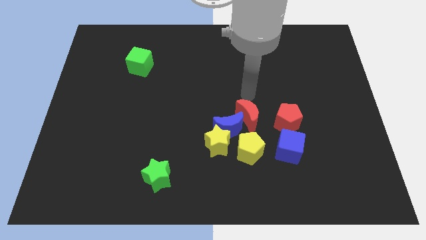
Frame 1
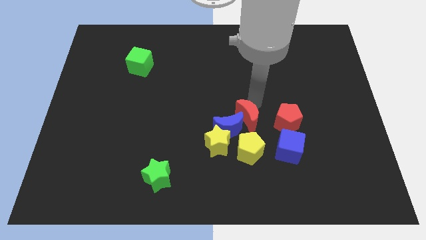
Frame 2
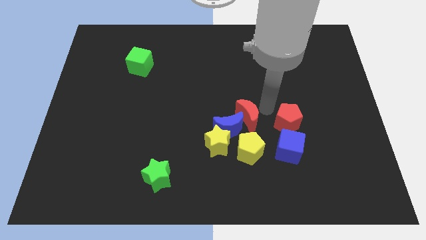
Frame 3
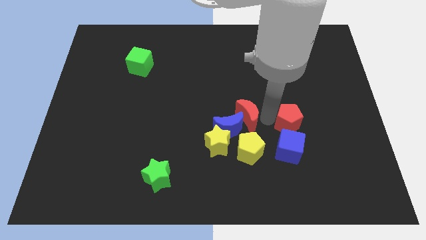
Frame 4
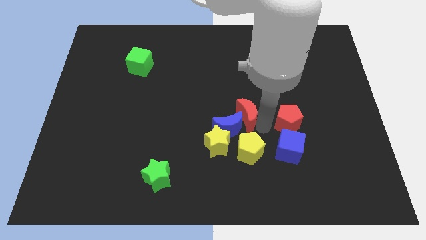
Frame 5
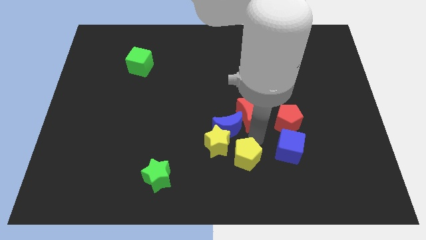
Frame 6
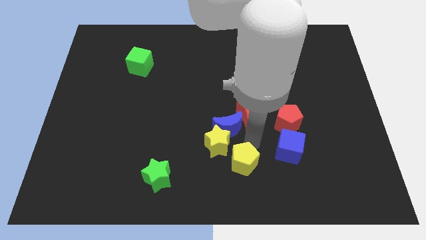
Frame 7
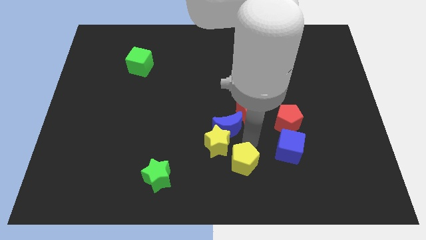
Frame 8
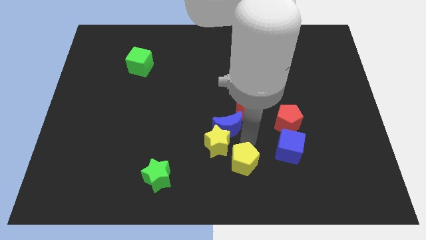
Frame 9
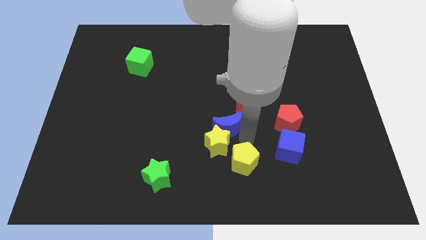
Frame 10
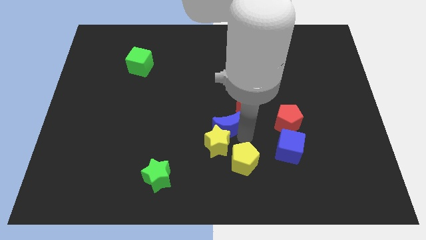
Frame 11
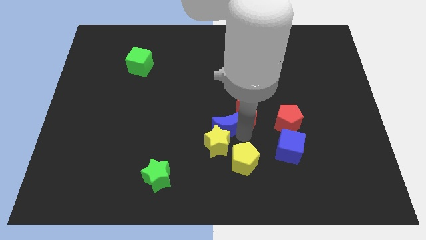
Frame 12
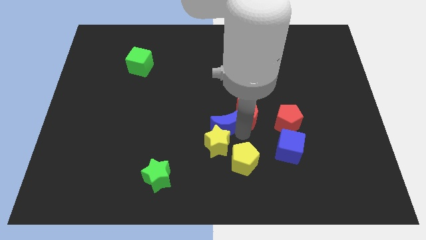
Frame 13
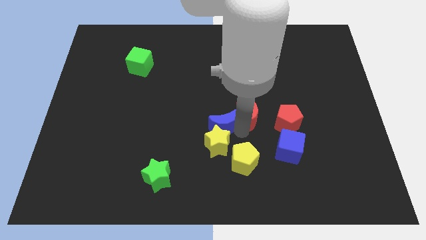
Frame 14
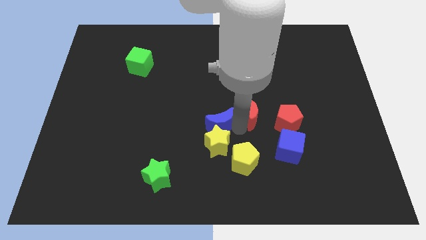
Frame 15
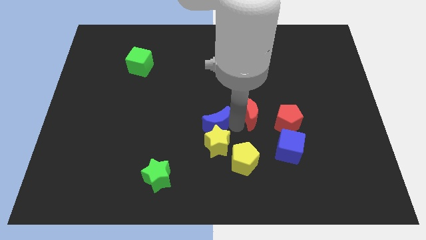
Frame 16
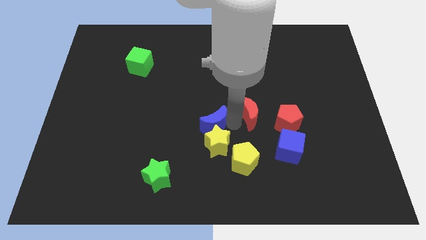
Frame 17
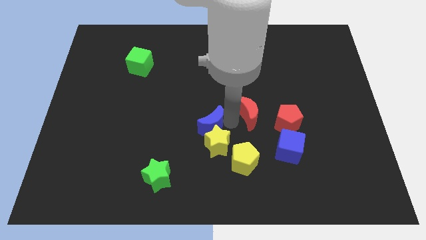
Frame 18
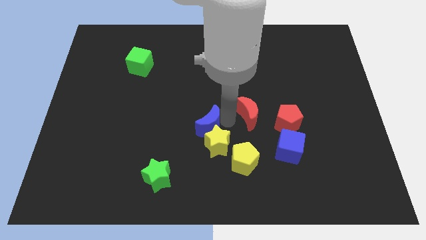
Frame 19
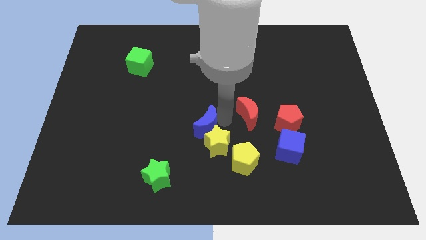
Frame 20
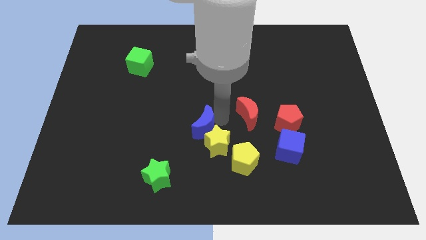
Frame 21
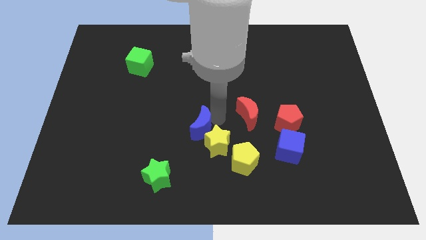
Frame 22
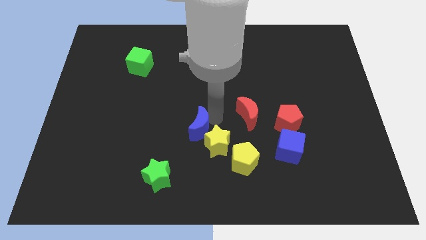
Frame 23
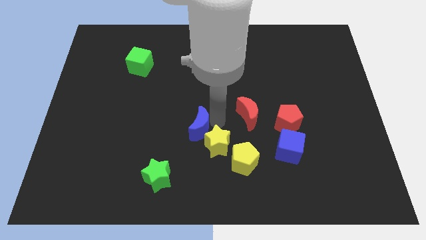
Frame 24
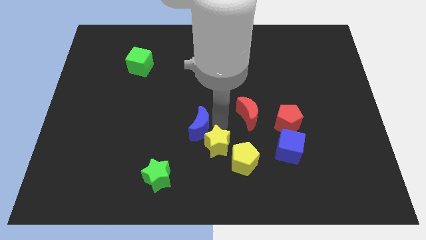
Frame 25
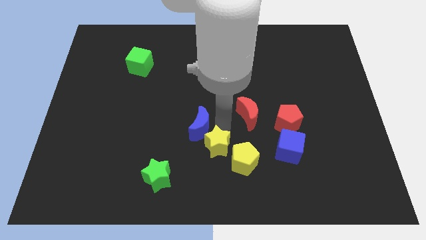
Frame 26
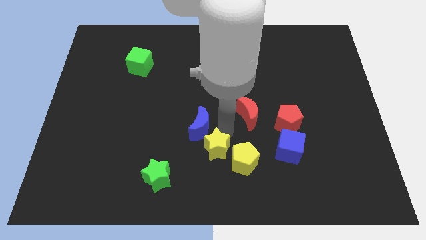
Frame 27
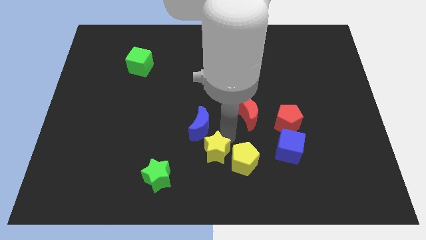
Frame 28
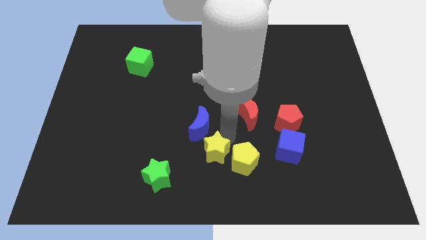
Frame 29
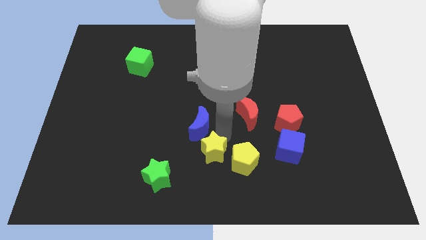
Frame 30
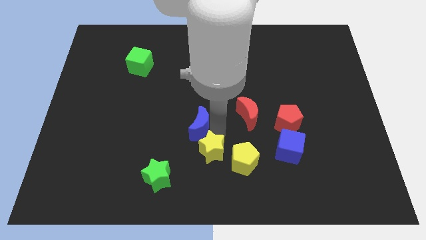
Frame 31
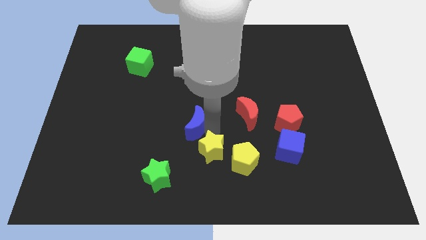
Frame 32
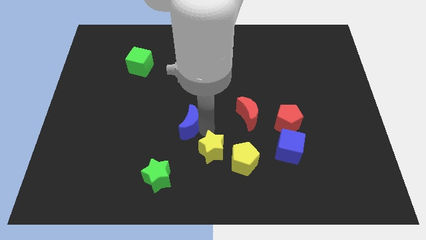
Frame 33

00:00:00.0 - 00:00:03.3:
pull the blue moon apart from the yellow star, red moon, and yellow pentagon

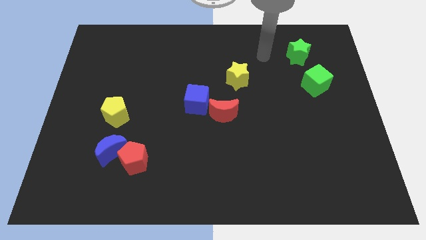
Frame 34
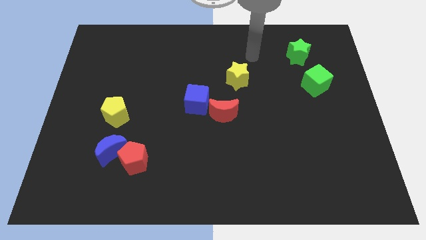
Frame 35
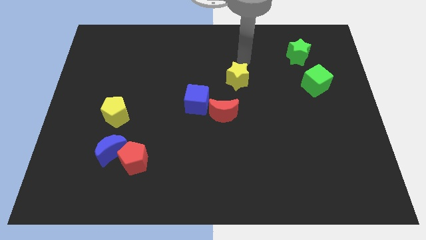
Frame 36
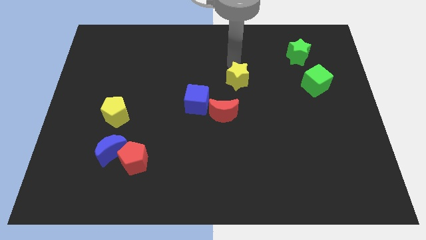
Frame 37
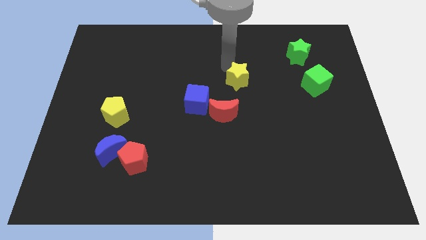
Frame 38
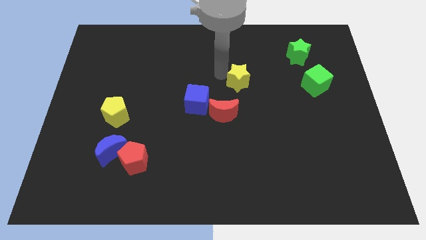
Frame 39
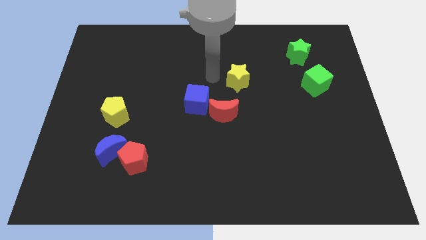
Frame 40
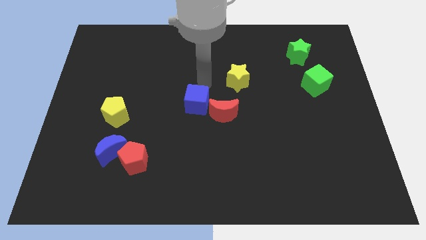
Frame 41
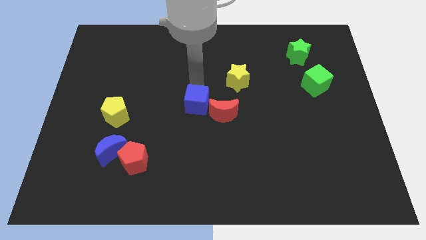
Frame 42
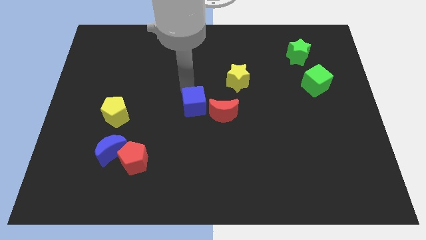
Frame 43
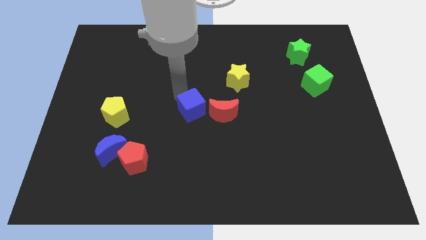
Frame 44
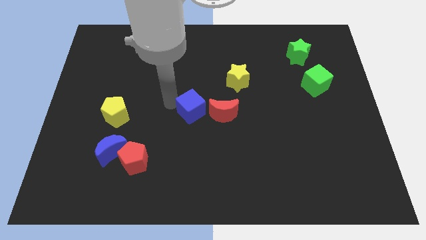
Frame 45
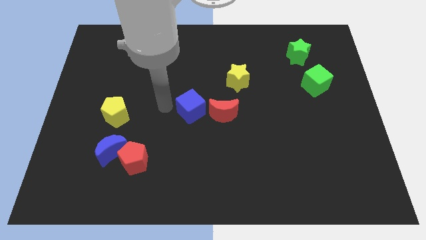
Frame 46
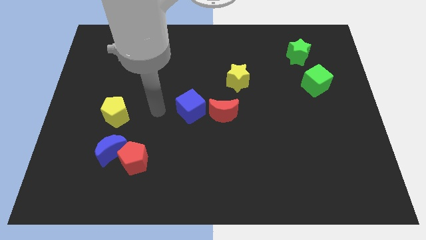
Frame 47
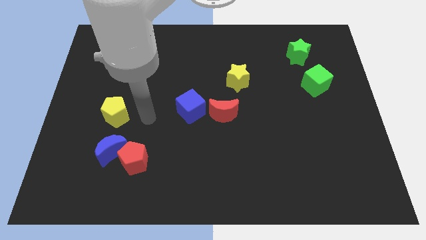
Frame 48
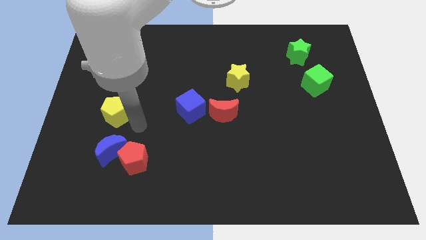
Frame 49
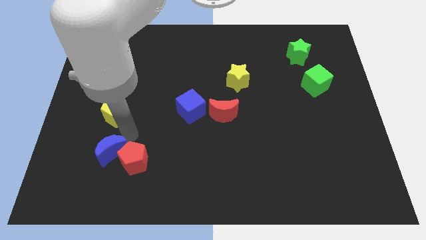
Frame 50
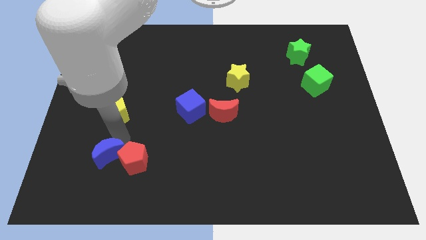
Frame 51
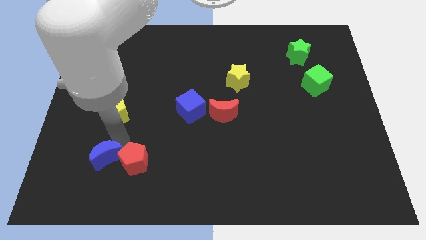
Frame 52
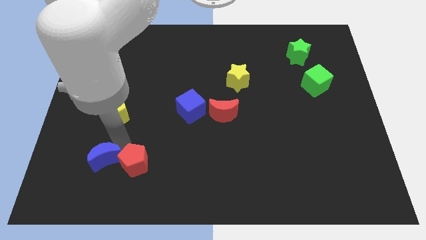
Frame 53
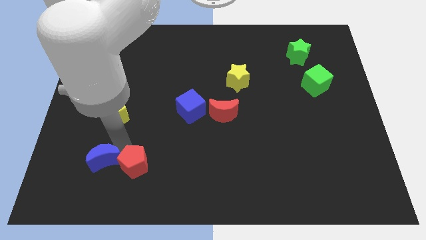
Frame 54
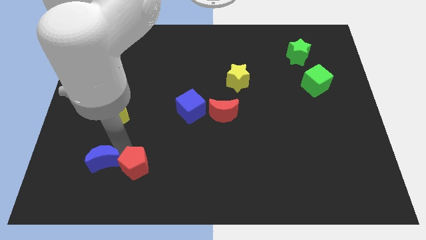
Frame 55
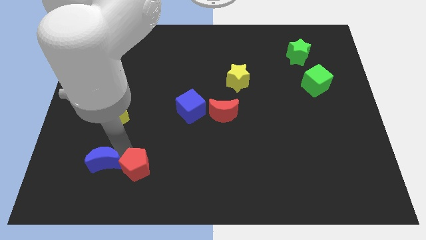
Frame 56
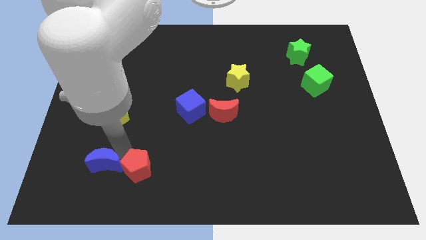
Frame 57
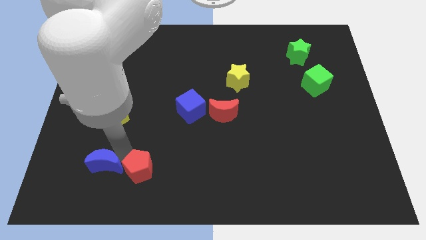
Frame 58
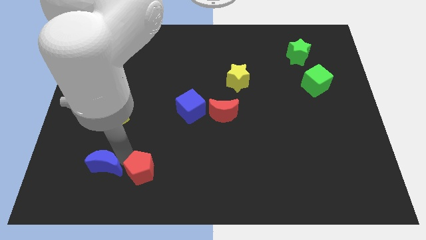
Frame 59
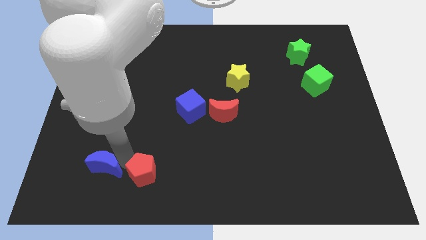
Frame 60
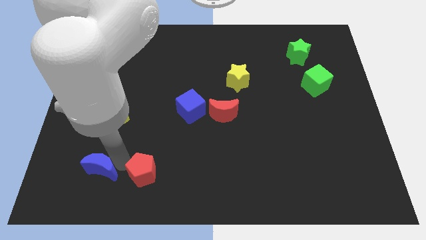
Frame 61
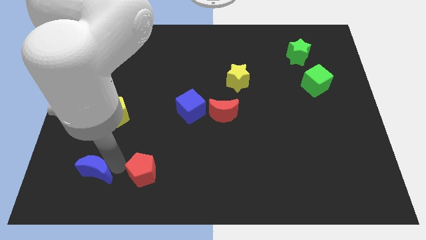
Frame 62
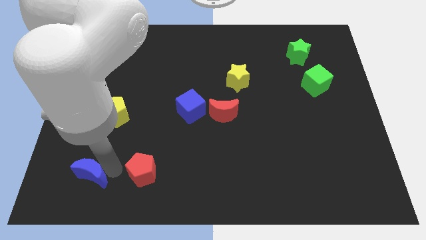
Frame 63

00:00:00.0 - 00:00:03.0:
pull the red pentagon apart from the blue moon

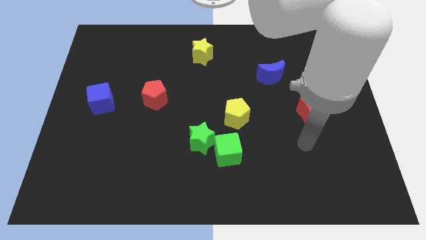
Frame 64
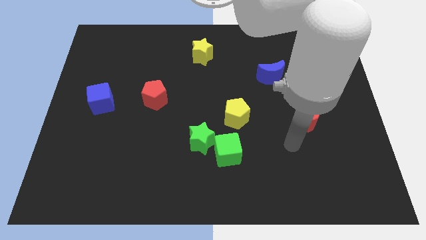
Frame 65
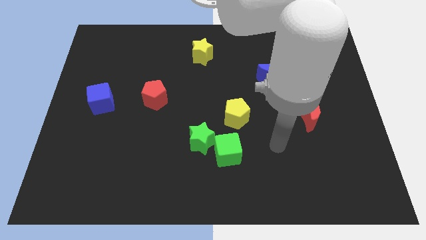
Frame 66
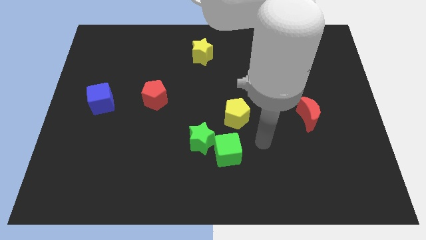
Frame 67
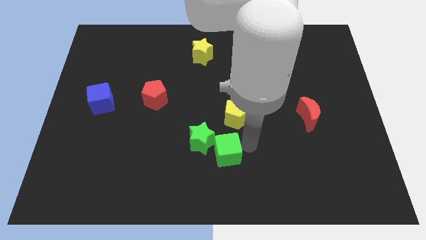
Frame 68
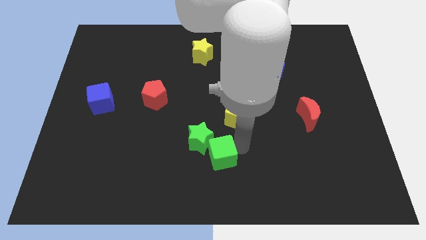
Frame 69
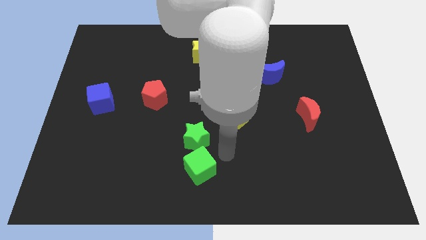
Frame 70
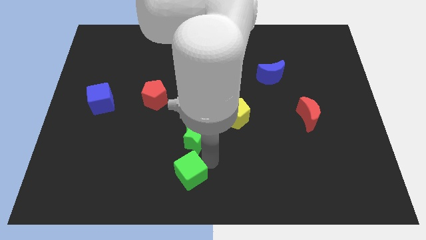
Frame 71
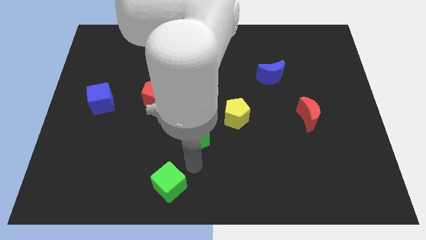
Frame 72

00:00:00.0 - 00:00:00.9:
separate the green star from the green cube

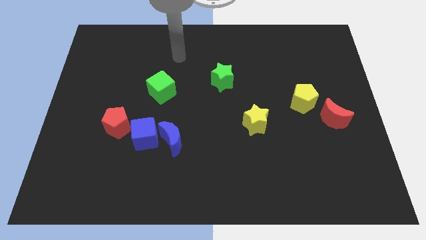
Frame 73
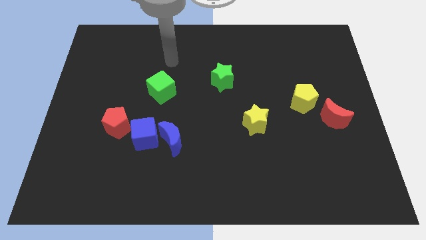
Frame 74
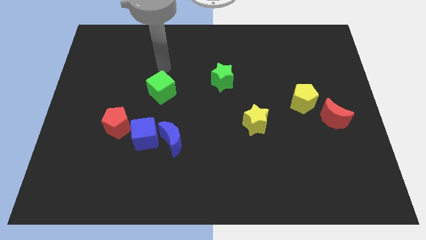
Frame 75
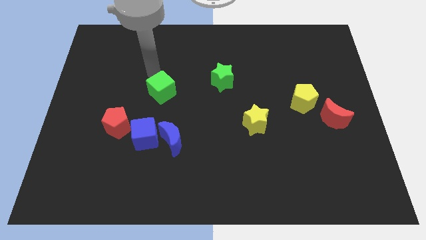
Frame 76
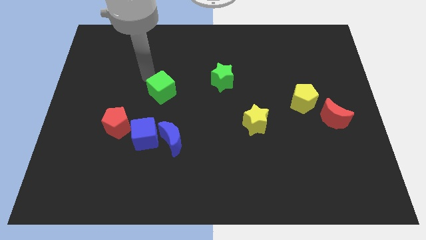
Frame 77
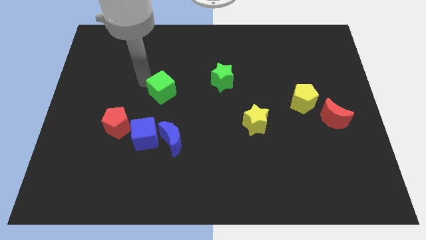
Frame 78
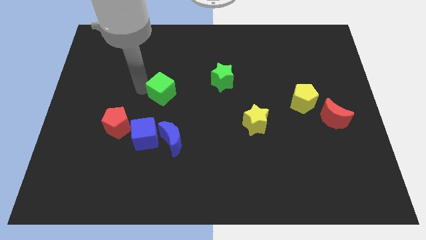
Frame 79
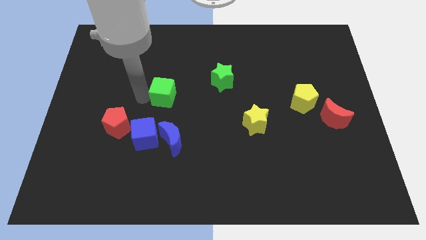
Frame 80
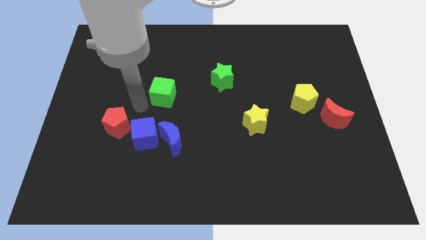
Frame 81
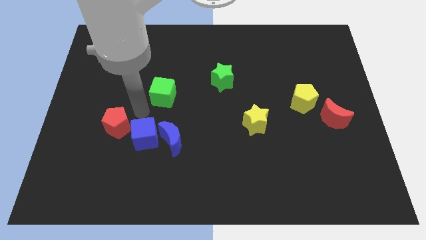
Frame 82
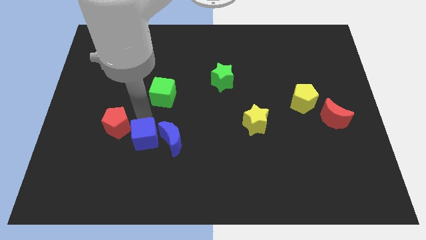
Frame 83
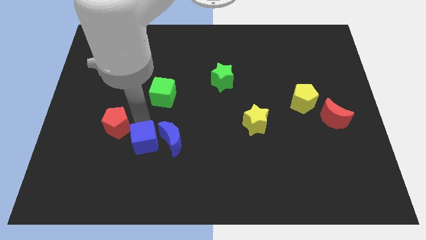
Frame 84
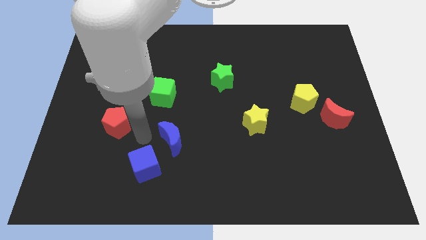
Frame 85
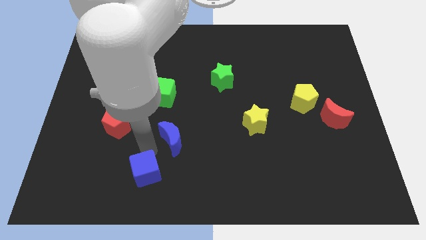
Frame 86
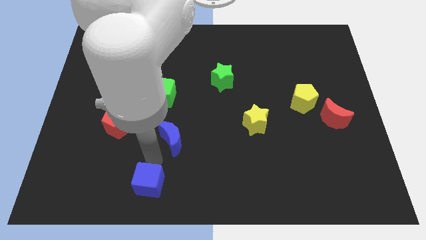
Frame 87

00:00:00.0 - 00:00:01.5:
separate the blue moon from the blue cube

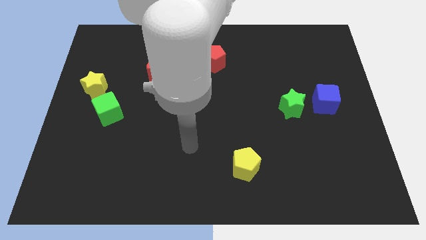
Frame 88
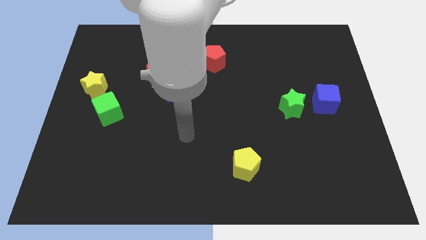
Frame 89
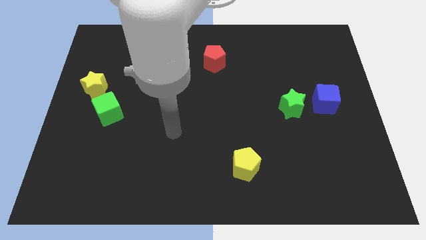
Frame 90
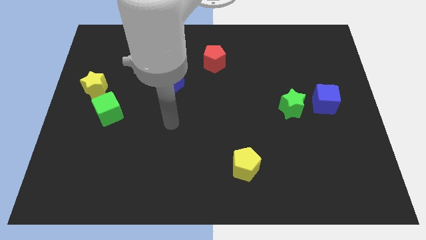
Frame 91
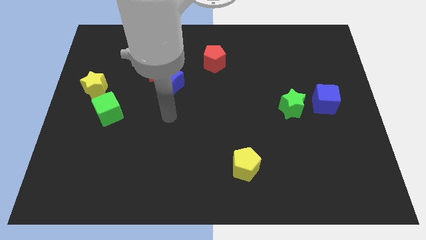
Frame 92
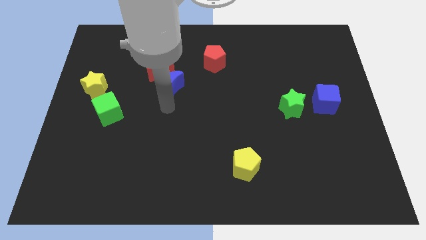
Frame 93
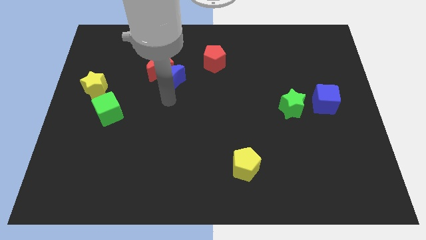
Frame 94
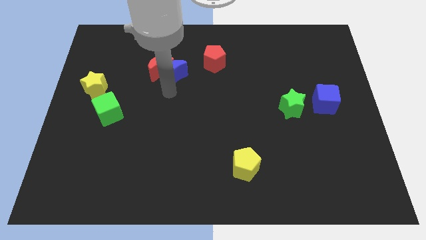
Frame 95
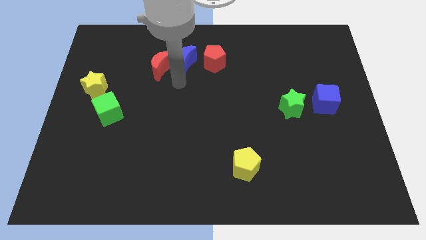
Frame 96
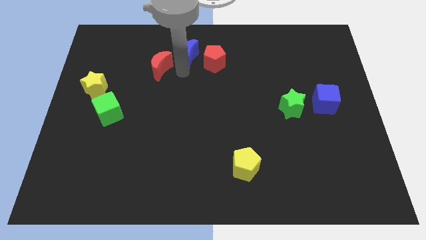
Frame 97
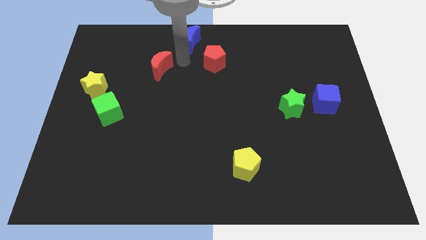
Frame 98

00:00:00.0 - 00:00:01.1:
move the red moon away from the blue moon
